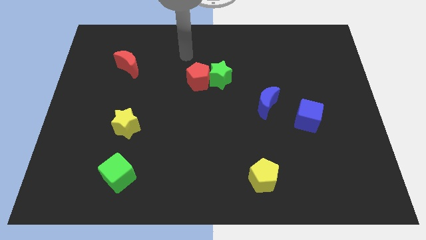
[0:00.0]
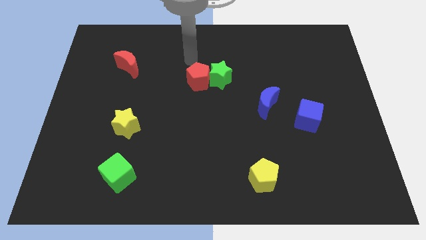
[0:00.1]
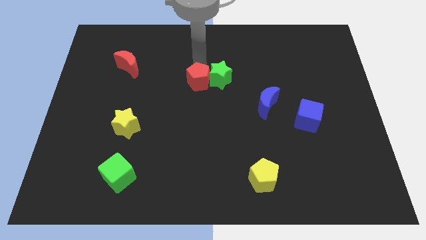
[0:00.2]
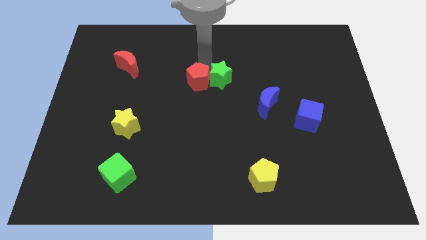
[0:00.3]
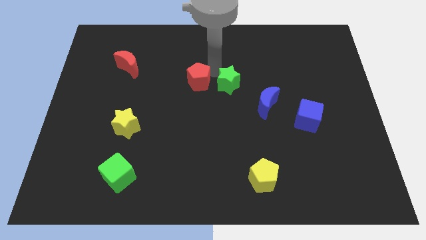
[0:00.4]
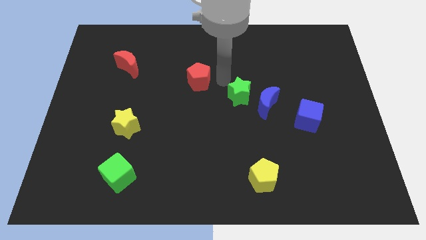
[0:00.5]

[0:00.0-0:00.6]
separate the red pentagon from the green star

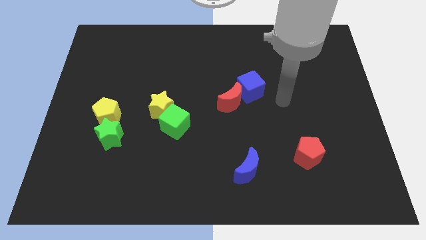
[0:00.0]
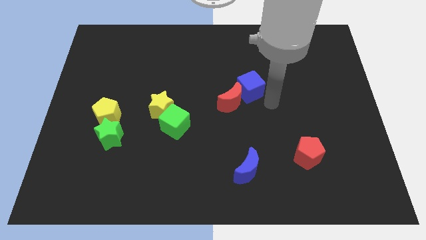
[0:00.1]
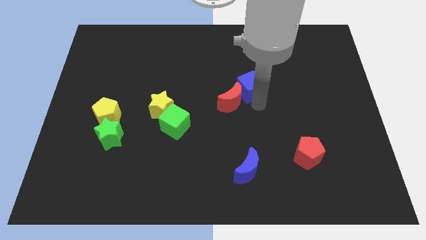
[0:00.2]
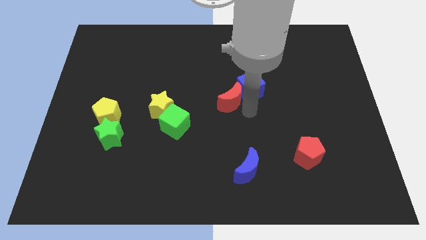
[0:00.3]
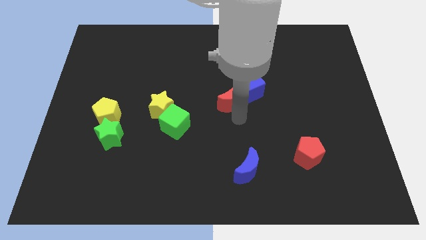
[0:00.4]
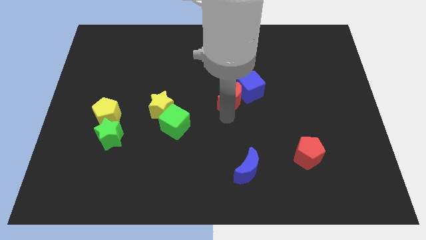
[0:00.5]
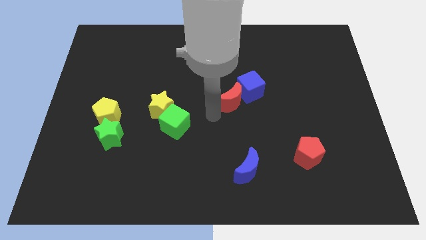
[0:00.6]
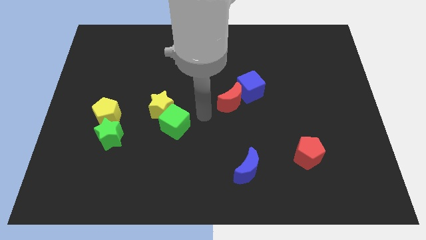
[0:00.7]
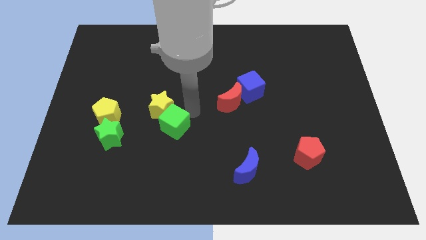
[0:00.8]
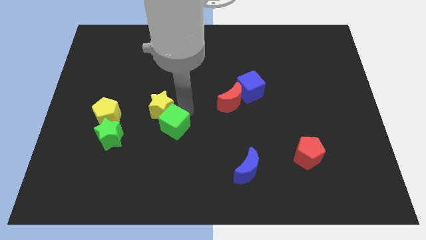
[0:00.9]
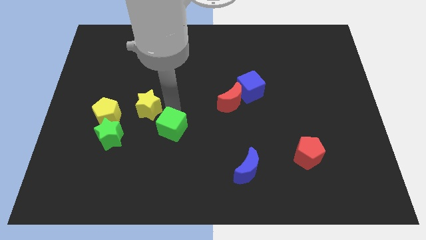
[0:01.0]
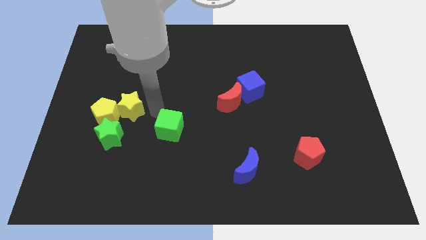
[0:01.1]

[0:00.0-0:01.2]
move the green cube away from the yellow star

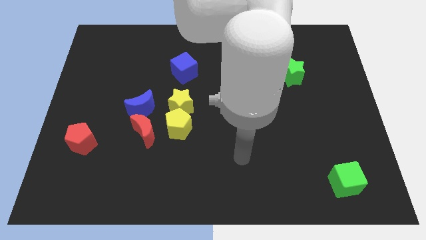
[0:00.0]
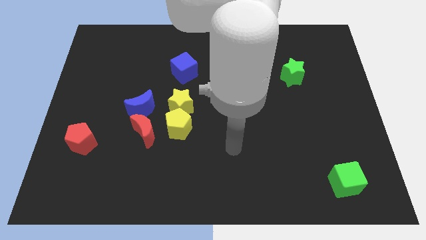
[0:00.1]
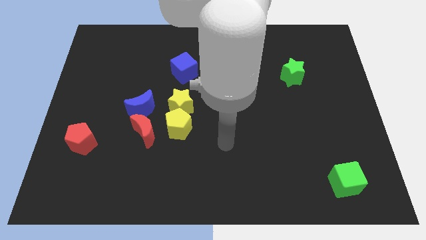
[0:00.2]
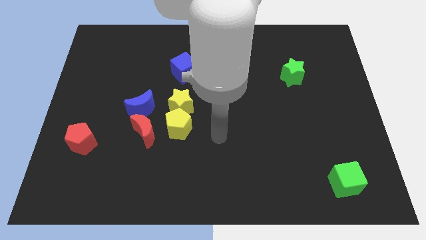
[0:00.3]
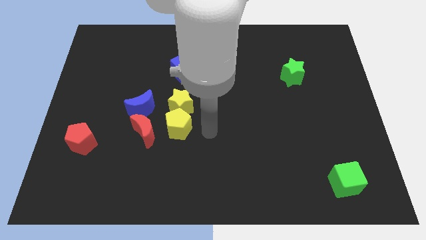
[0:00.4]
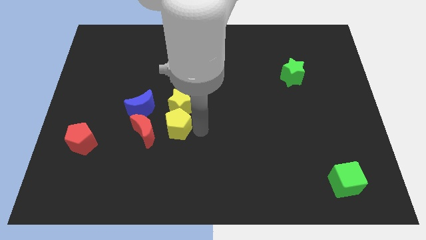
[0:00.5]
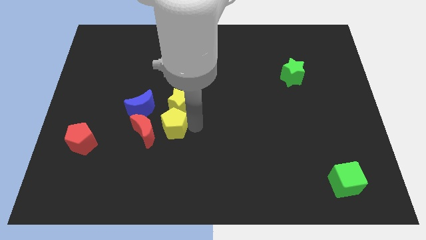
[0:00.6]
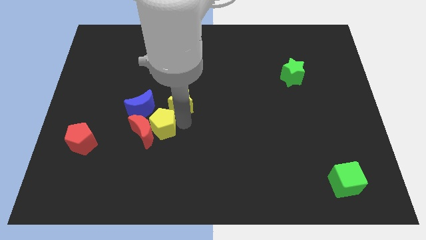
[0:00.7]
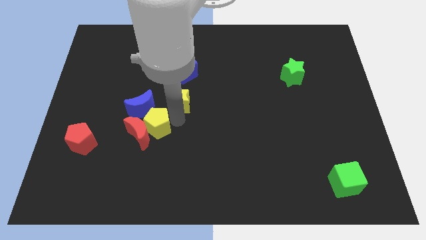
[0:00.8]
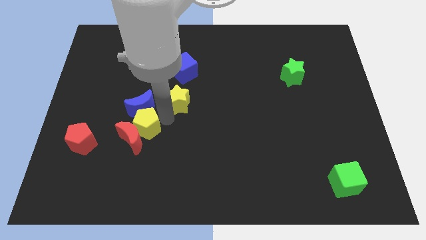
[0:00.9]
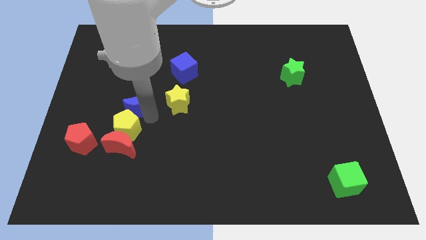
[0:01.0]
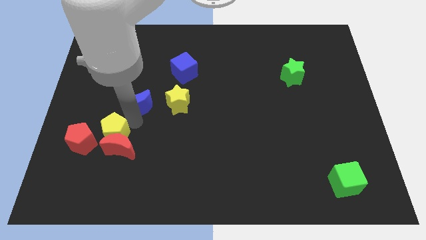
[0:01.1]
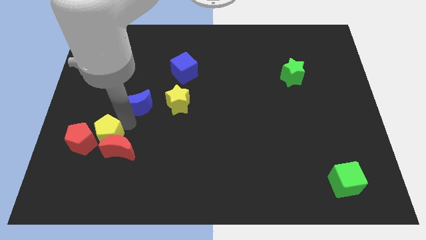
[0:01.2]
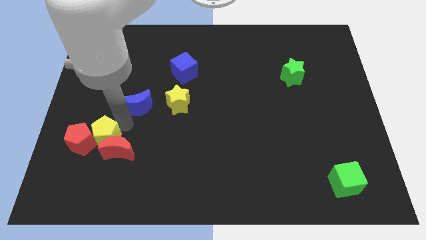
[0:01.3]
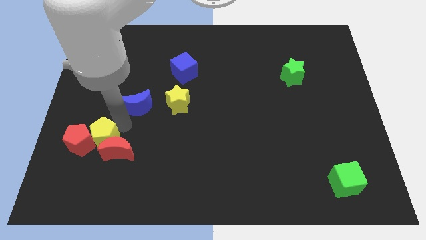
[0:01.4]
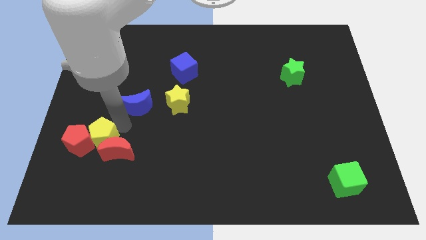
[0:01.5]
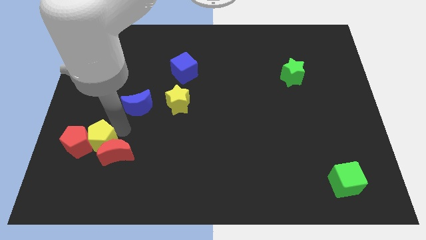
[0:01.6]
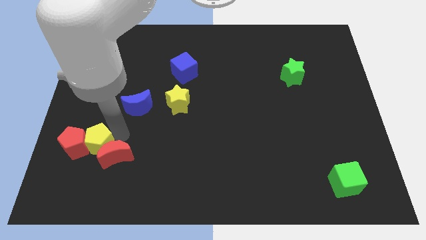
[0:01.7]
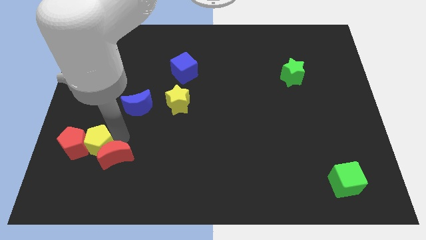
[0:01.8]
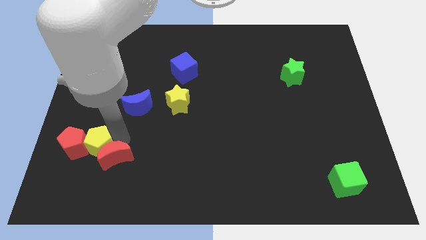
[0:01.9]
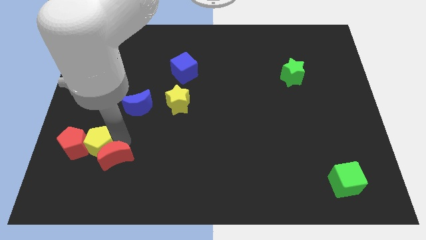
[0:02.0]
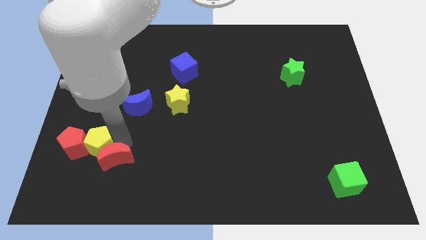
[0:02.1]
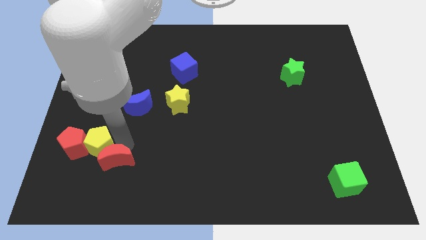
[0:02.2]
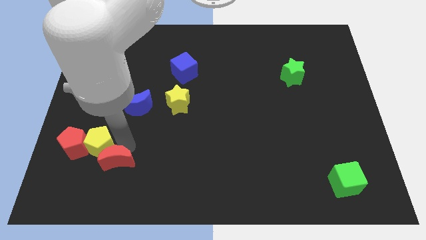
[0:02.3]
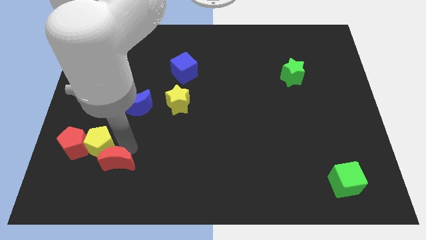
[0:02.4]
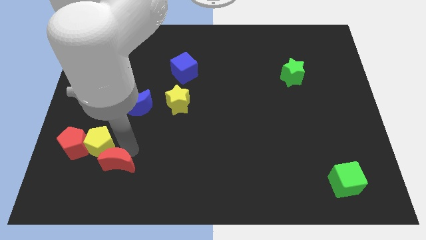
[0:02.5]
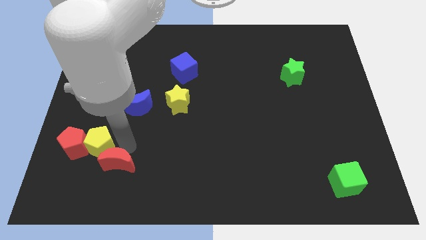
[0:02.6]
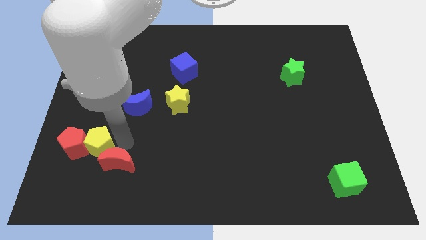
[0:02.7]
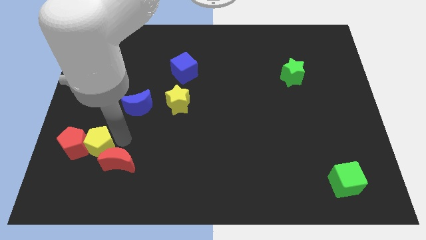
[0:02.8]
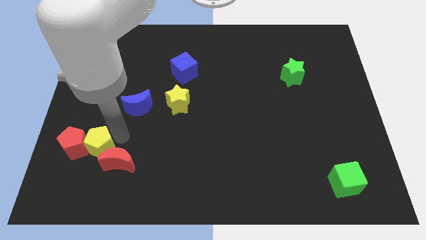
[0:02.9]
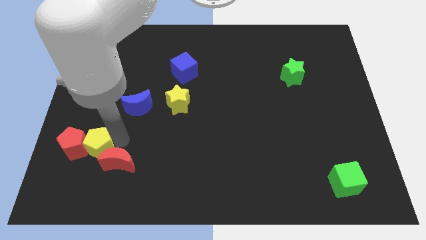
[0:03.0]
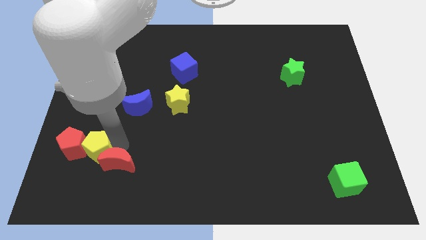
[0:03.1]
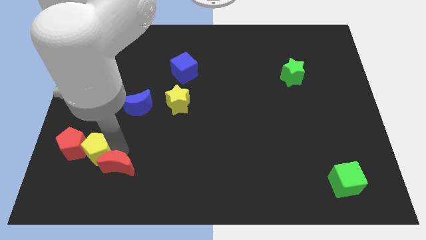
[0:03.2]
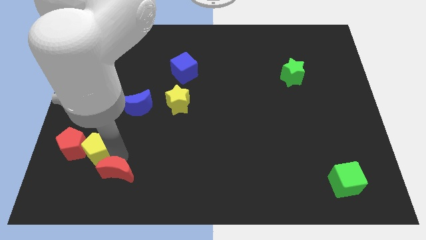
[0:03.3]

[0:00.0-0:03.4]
pull the red moon apart from the blue moon and yellow pentagon

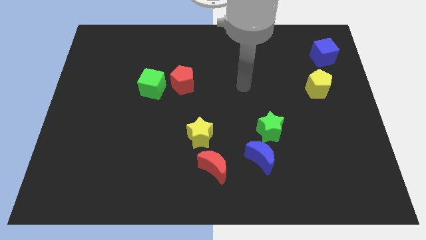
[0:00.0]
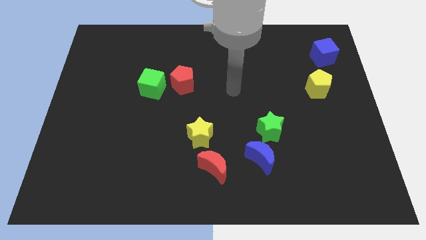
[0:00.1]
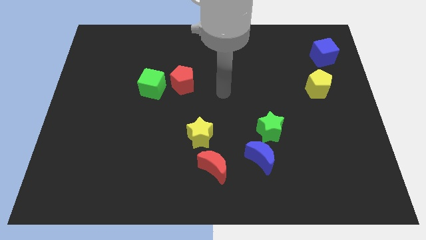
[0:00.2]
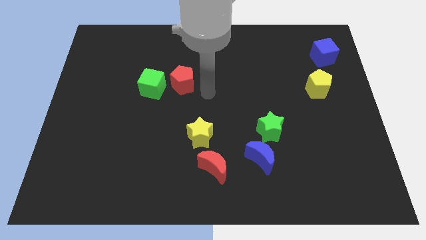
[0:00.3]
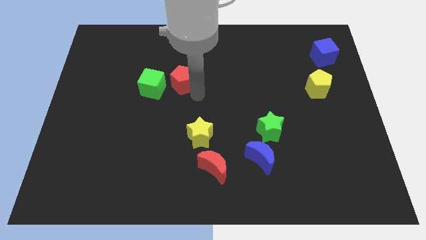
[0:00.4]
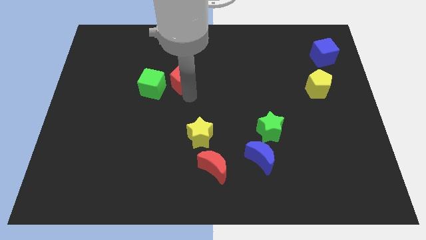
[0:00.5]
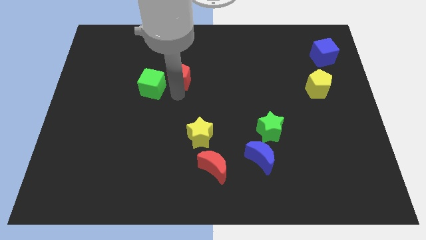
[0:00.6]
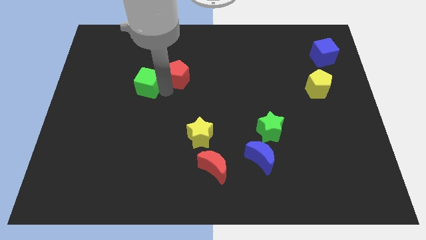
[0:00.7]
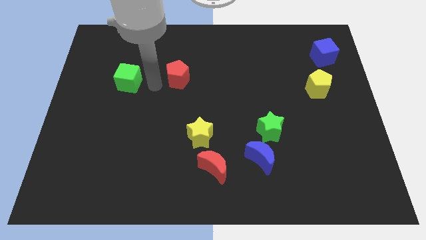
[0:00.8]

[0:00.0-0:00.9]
move the red pentagon away from the green cube

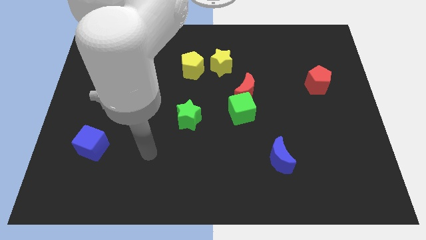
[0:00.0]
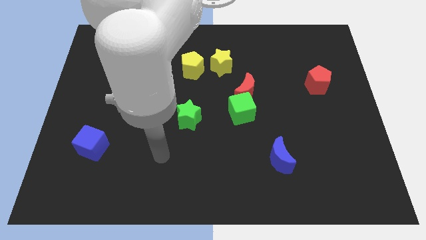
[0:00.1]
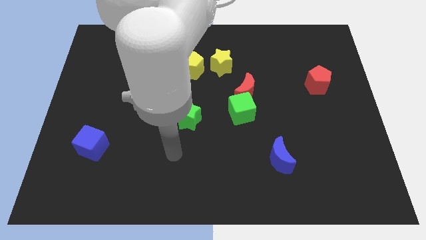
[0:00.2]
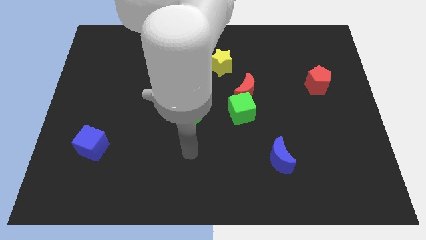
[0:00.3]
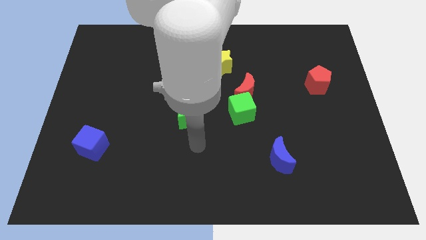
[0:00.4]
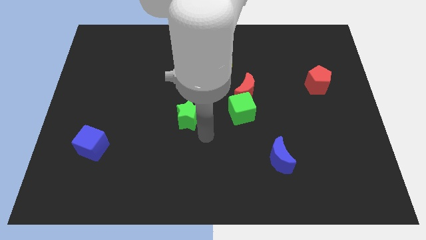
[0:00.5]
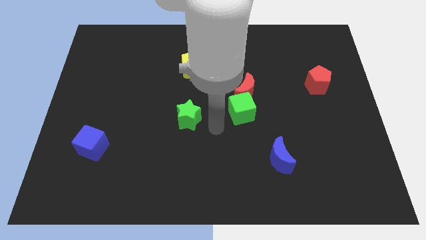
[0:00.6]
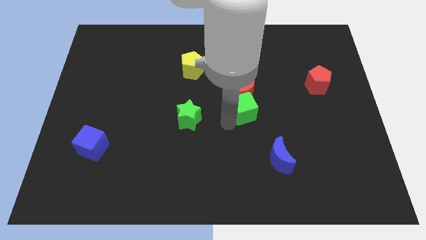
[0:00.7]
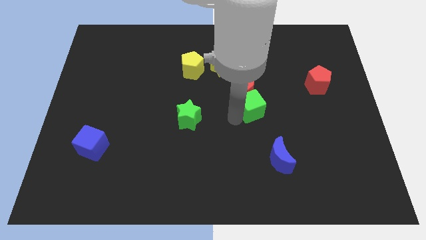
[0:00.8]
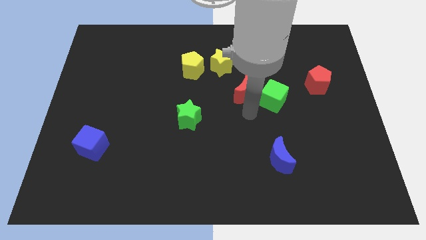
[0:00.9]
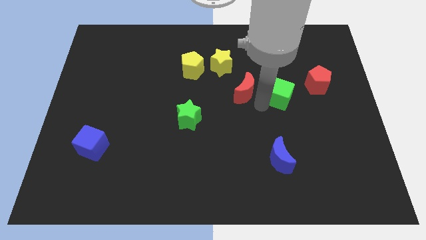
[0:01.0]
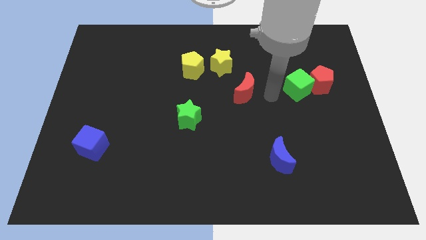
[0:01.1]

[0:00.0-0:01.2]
move the red moon away from the green cube

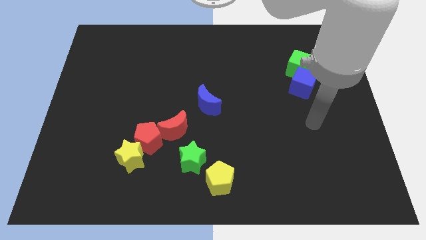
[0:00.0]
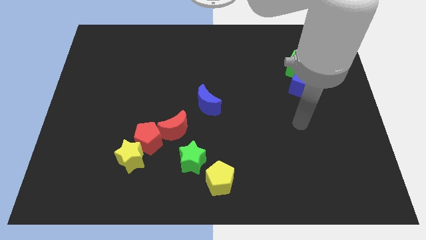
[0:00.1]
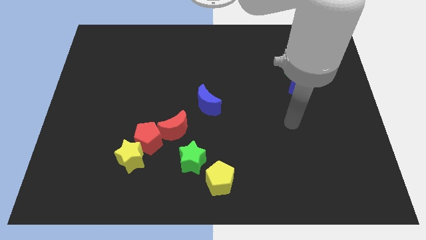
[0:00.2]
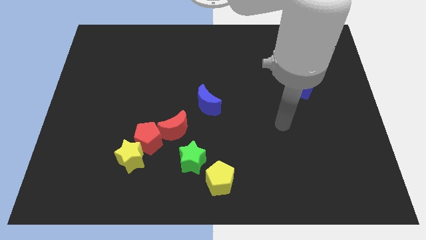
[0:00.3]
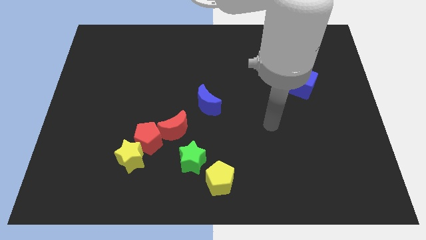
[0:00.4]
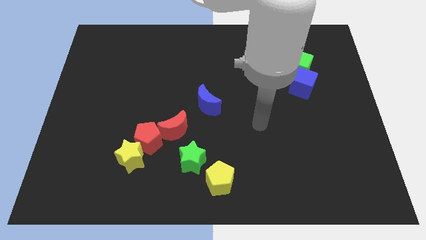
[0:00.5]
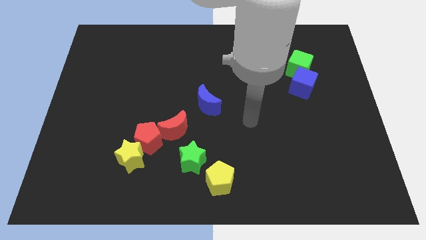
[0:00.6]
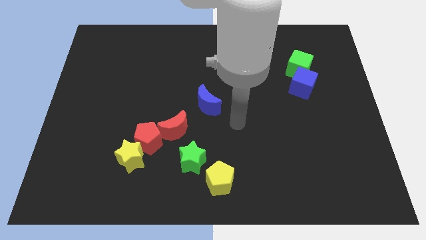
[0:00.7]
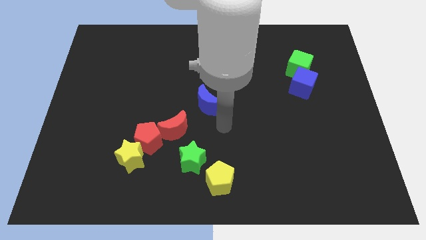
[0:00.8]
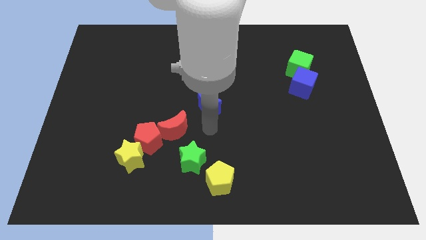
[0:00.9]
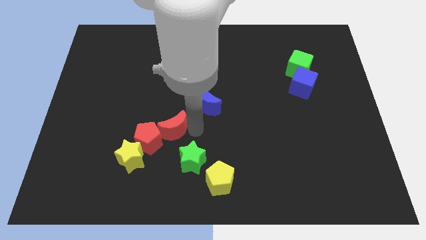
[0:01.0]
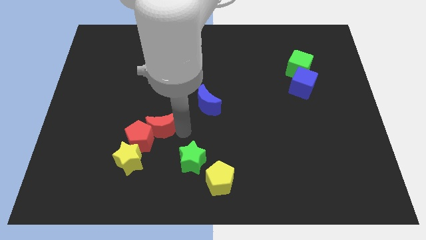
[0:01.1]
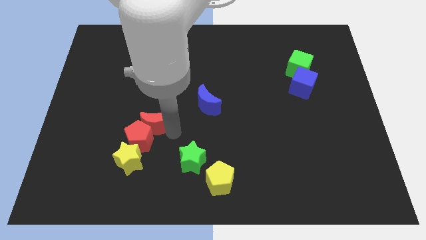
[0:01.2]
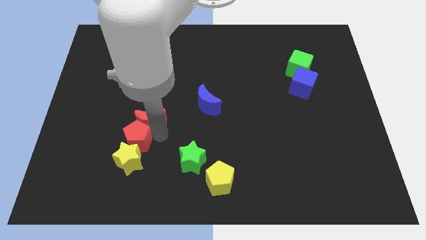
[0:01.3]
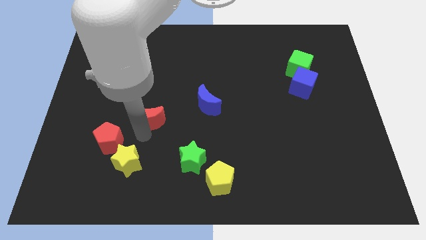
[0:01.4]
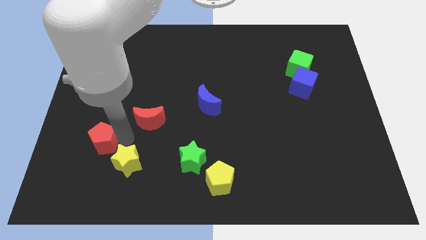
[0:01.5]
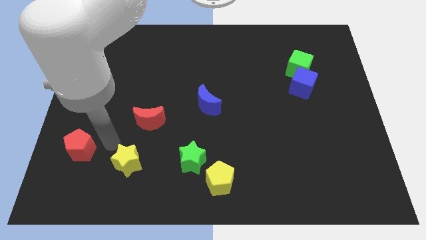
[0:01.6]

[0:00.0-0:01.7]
separate the yellow star from the red pentagon

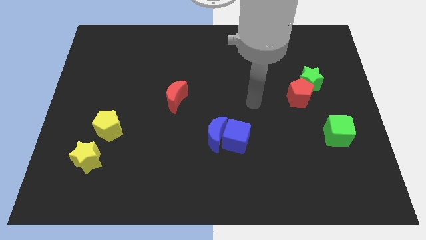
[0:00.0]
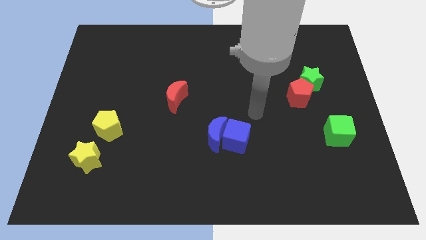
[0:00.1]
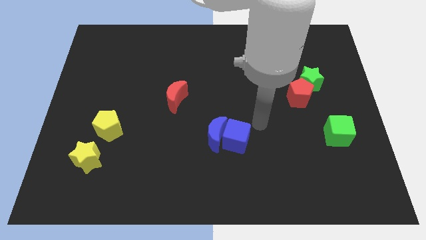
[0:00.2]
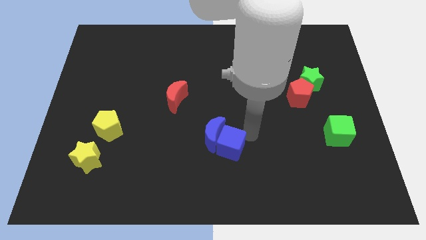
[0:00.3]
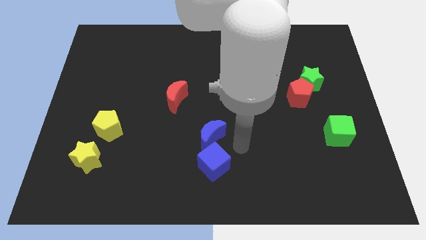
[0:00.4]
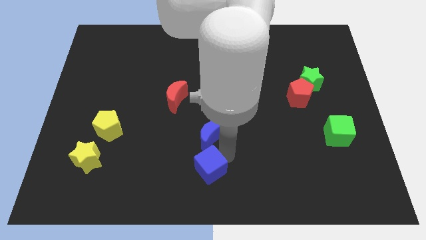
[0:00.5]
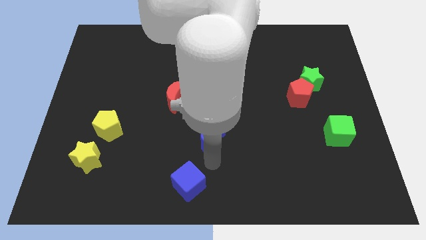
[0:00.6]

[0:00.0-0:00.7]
pull the blue moon apart from the blue cube
